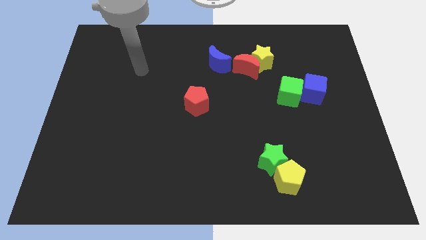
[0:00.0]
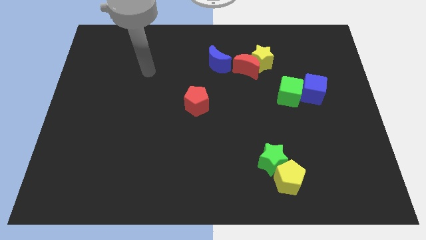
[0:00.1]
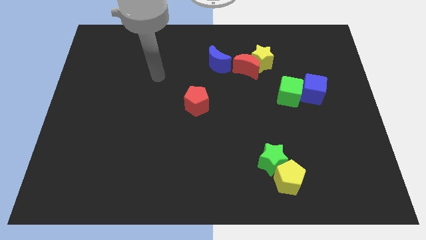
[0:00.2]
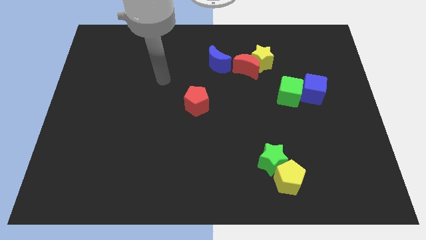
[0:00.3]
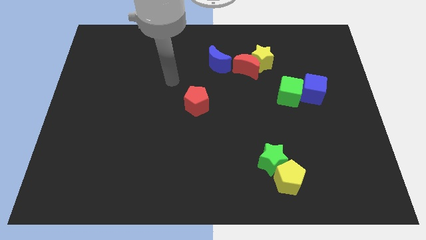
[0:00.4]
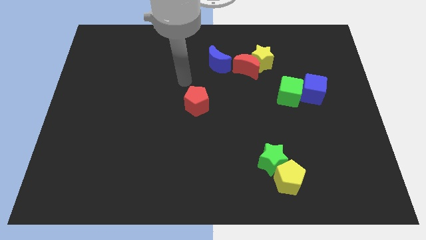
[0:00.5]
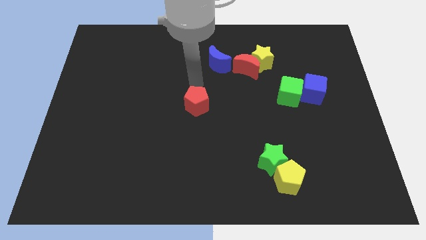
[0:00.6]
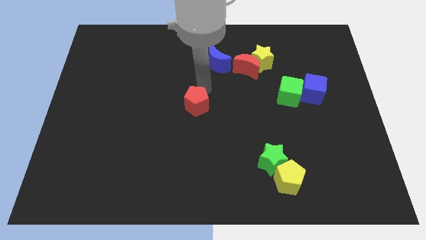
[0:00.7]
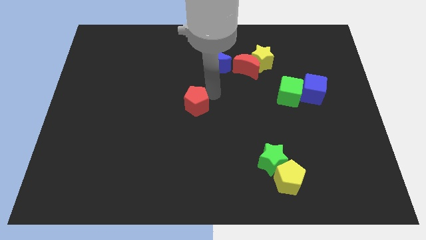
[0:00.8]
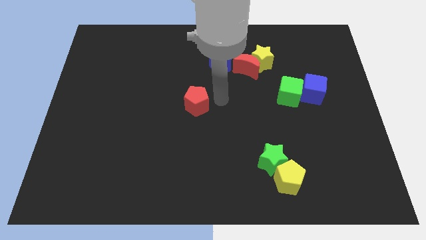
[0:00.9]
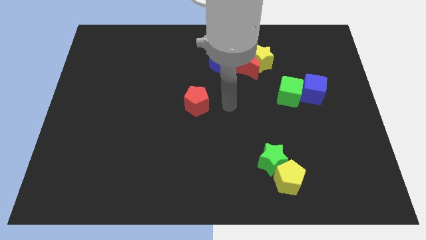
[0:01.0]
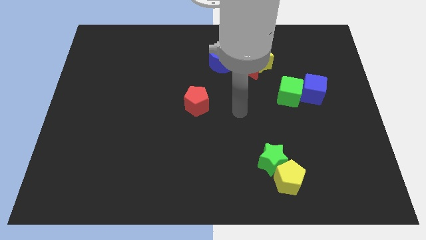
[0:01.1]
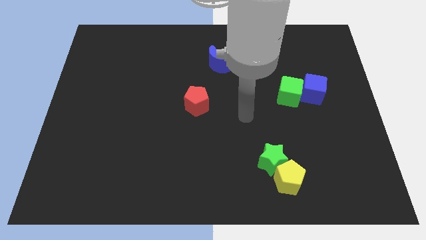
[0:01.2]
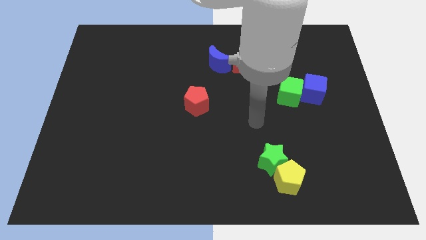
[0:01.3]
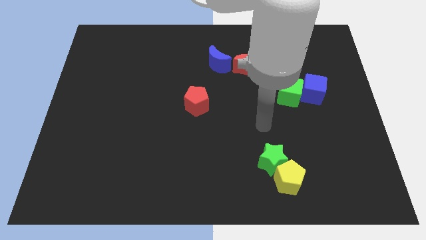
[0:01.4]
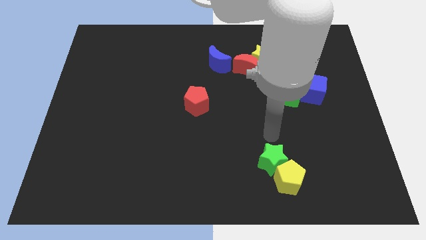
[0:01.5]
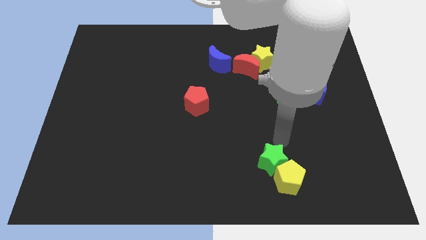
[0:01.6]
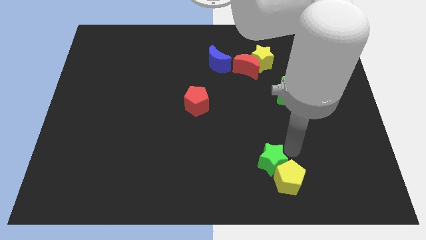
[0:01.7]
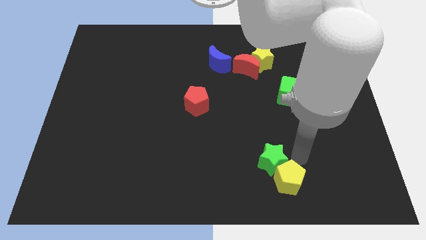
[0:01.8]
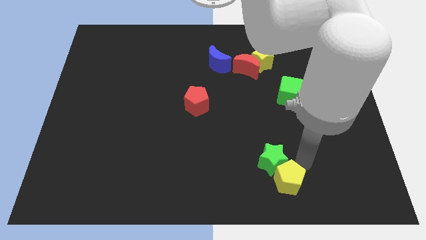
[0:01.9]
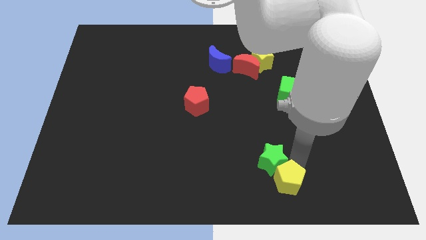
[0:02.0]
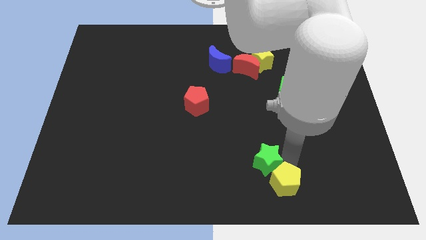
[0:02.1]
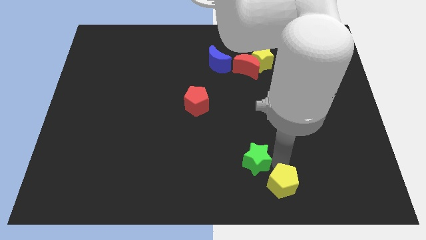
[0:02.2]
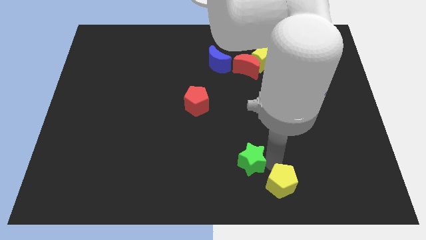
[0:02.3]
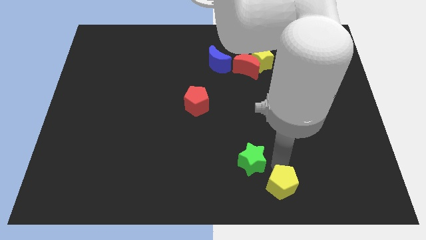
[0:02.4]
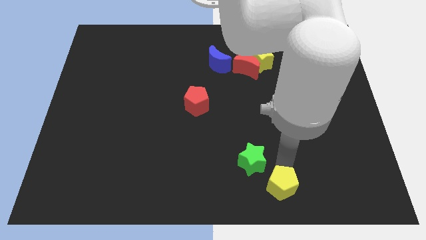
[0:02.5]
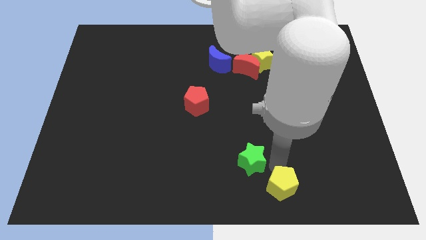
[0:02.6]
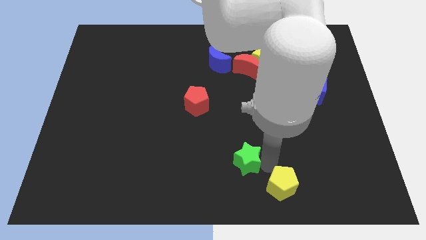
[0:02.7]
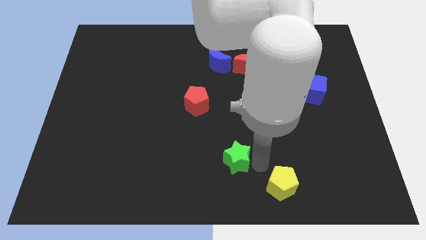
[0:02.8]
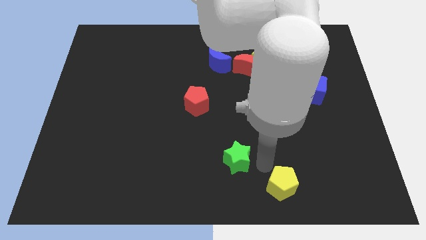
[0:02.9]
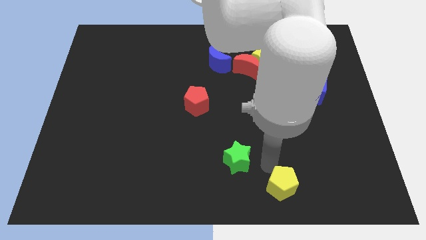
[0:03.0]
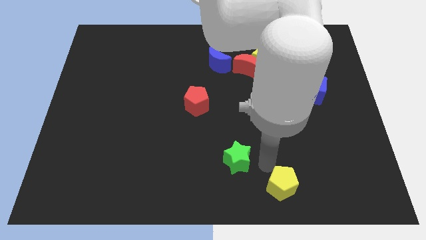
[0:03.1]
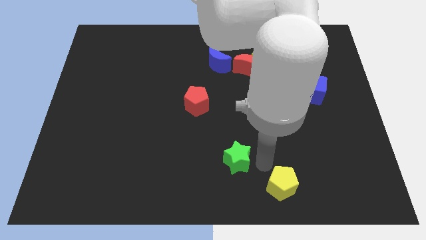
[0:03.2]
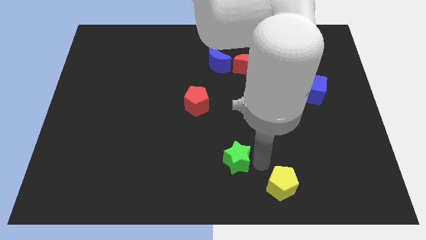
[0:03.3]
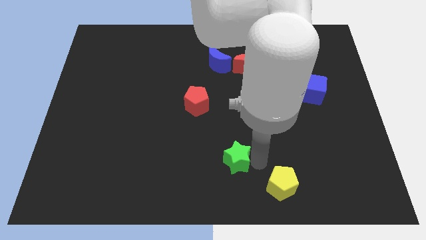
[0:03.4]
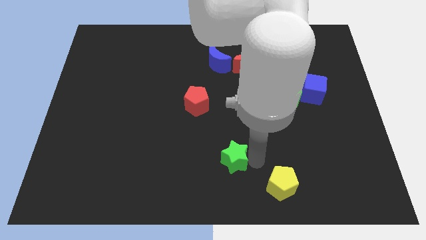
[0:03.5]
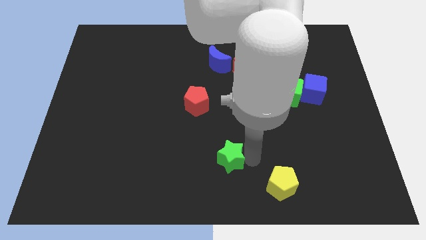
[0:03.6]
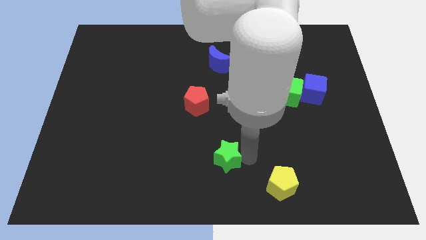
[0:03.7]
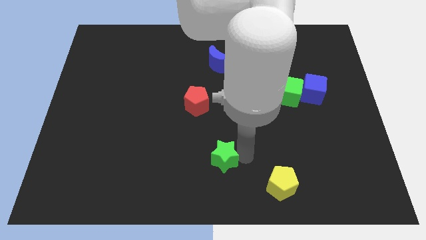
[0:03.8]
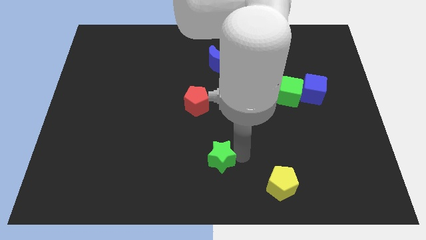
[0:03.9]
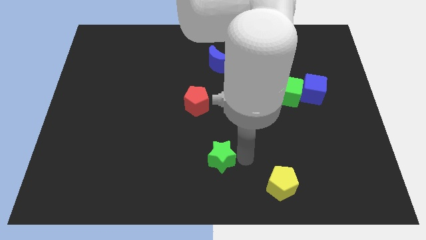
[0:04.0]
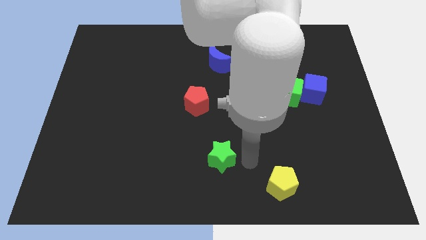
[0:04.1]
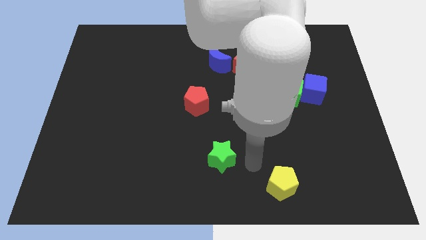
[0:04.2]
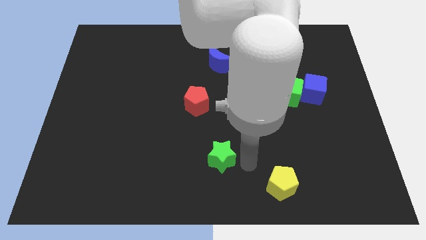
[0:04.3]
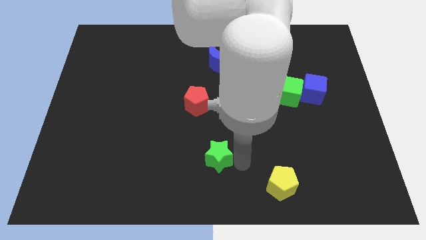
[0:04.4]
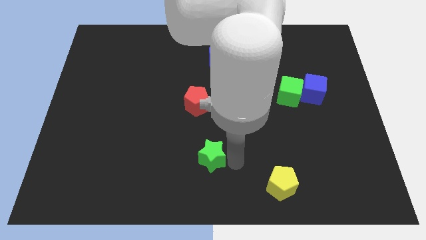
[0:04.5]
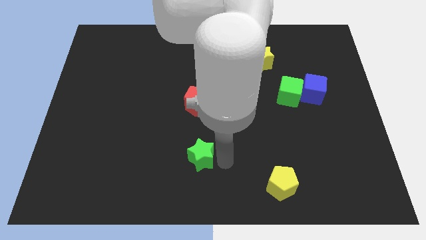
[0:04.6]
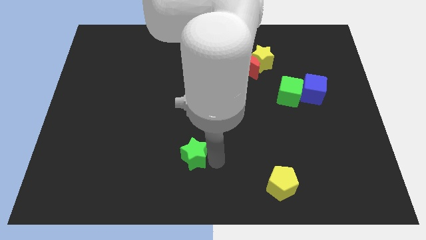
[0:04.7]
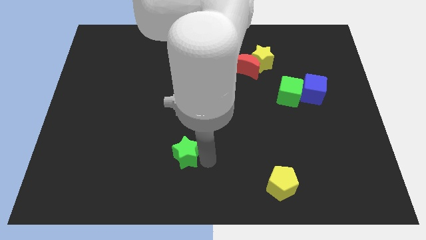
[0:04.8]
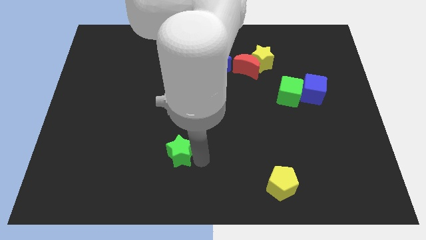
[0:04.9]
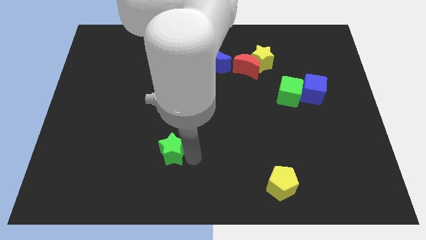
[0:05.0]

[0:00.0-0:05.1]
slide the green star left

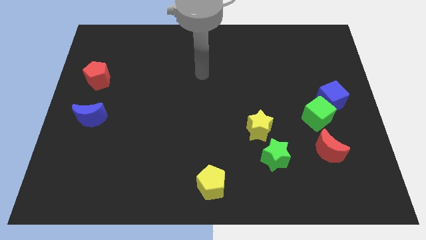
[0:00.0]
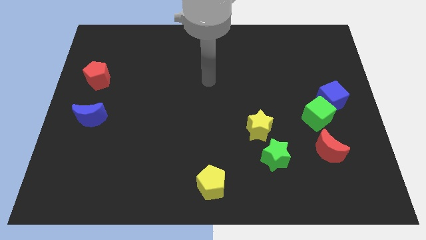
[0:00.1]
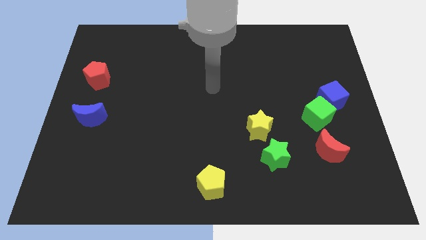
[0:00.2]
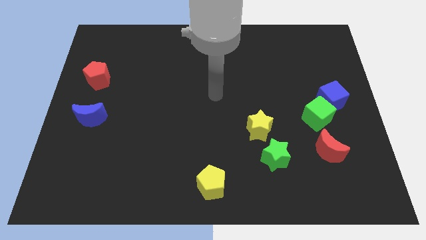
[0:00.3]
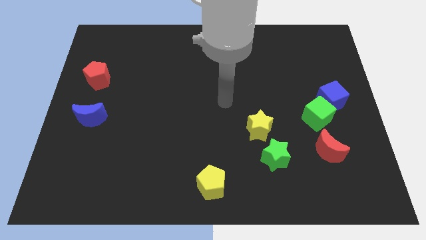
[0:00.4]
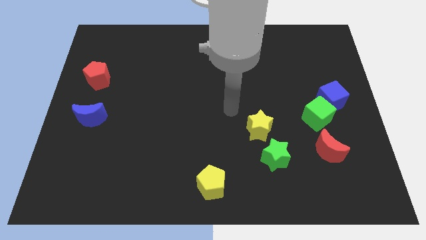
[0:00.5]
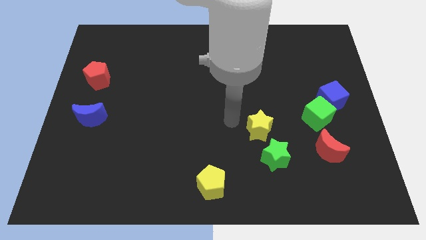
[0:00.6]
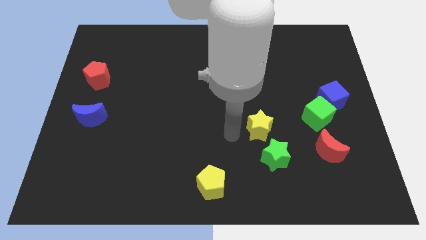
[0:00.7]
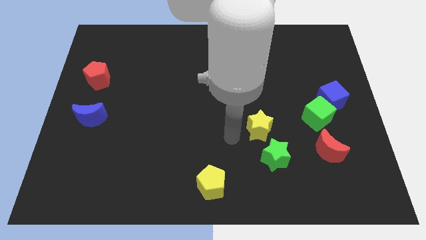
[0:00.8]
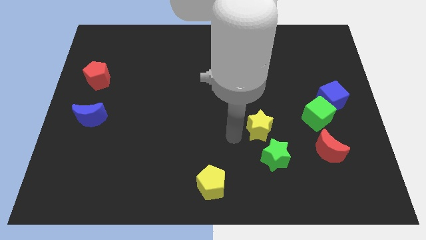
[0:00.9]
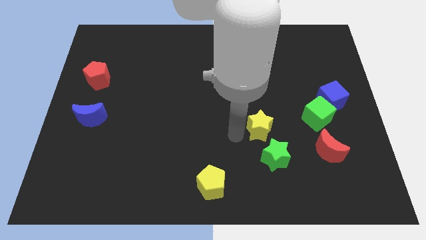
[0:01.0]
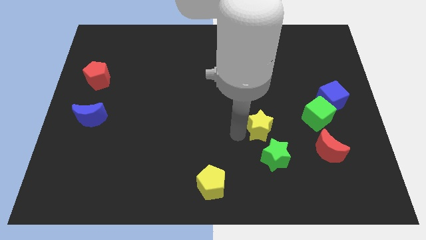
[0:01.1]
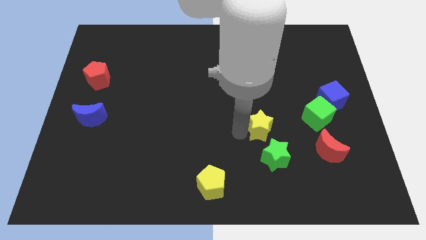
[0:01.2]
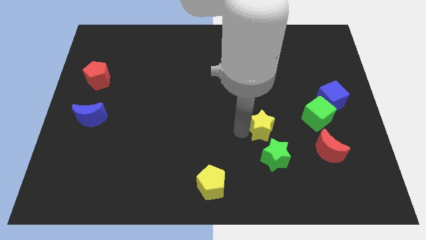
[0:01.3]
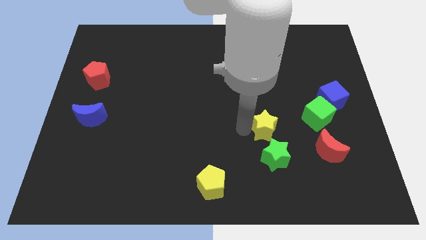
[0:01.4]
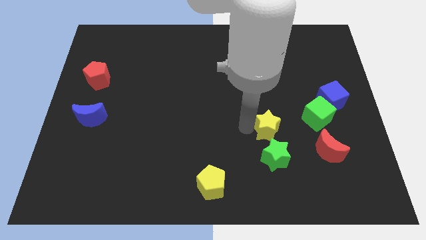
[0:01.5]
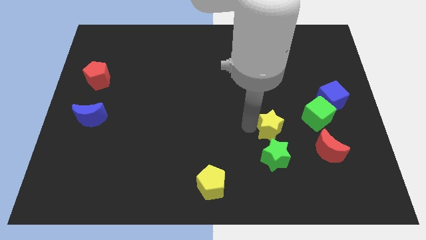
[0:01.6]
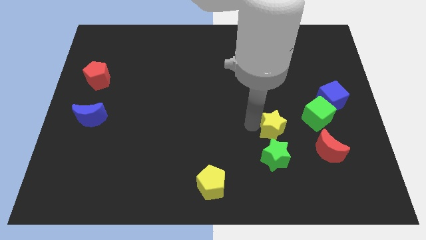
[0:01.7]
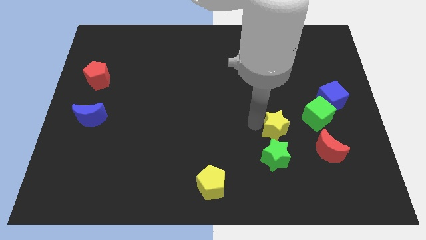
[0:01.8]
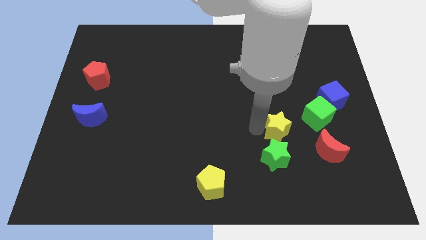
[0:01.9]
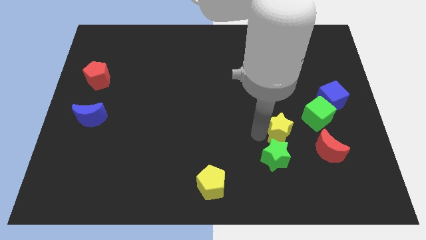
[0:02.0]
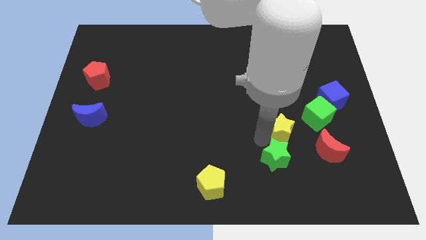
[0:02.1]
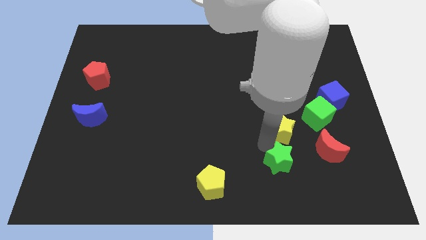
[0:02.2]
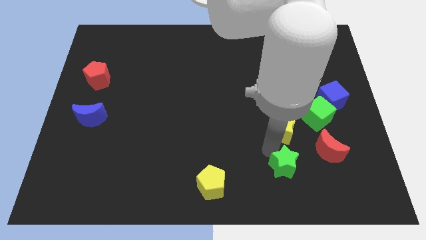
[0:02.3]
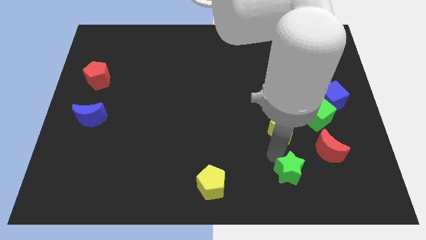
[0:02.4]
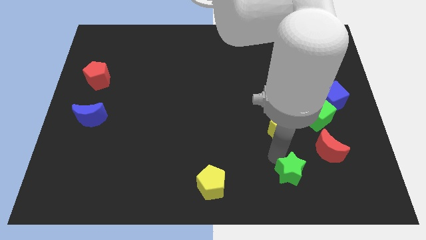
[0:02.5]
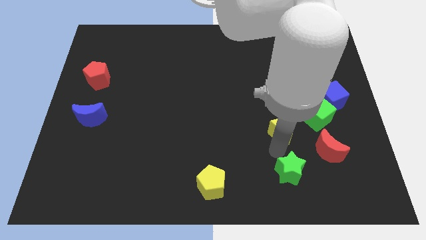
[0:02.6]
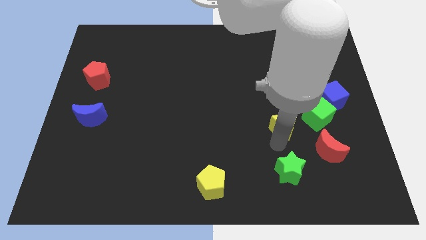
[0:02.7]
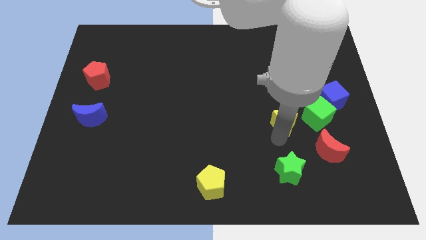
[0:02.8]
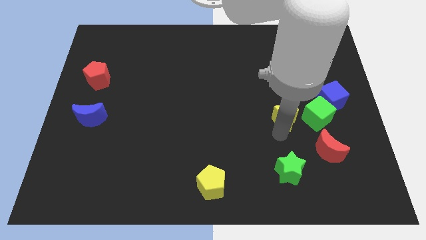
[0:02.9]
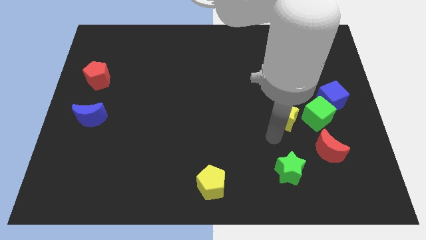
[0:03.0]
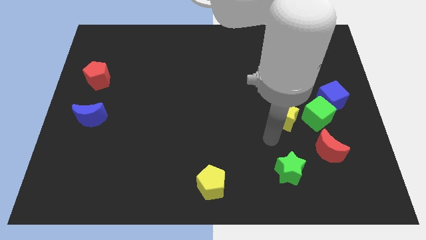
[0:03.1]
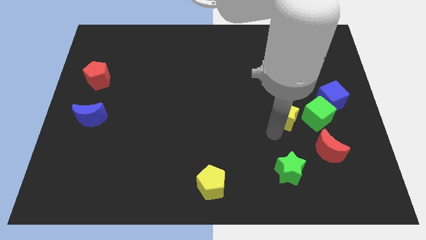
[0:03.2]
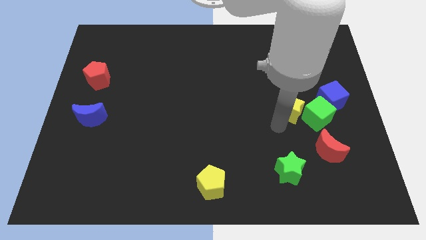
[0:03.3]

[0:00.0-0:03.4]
move the yellow star a little up and then right
